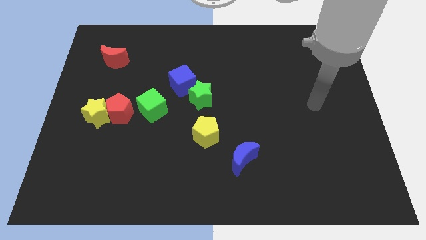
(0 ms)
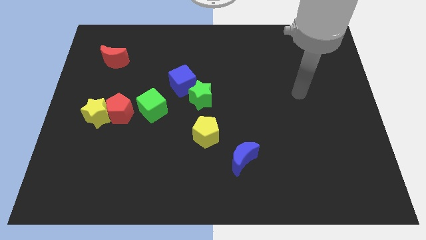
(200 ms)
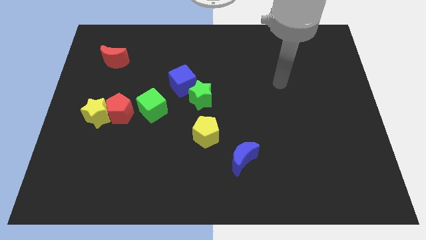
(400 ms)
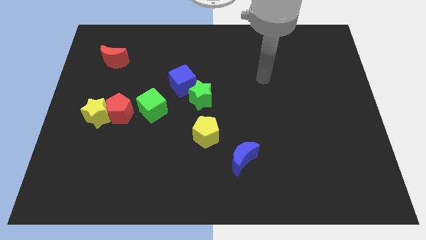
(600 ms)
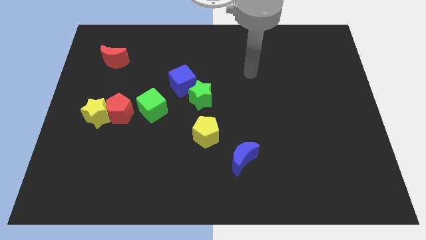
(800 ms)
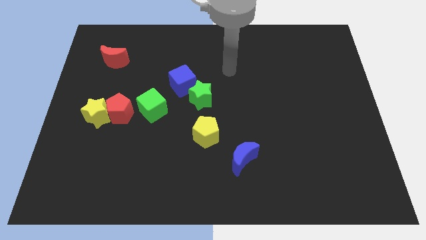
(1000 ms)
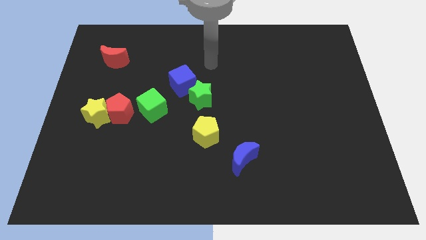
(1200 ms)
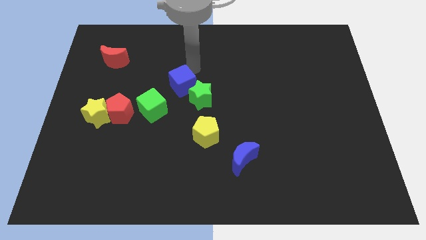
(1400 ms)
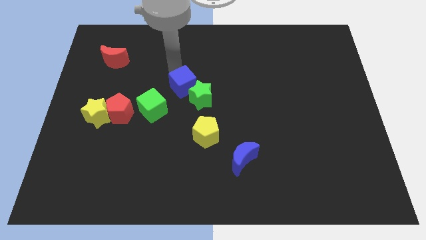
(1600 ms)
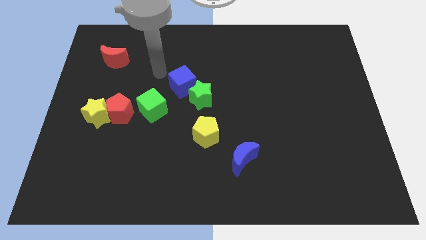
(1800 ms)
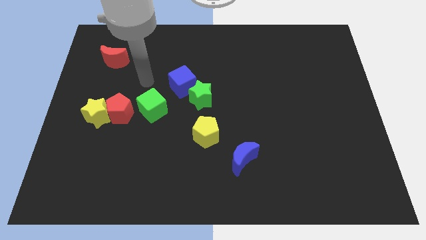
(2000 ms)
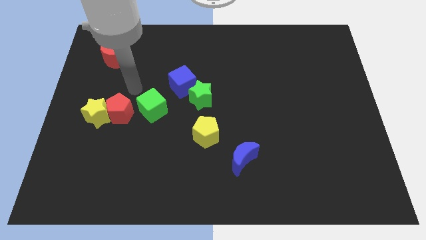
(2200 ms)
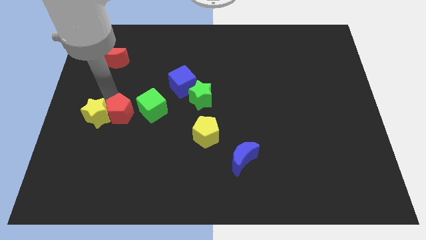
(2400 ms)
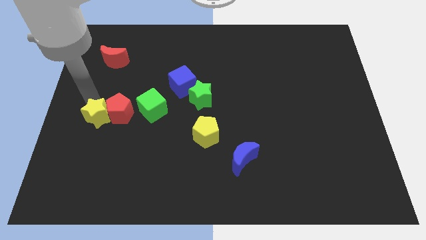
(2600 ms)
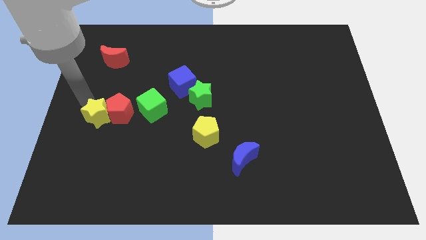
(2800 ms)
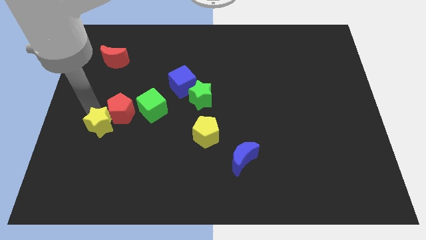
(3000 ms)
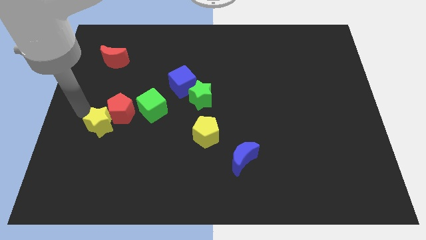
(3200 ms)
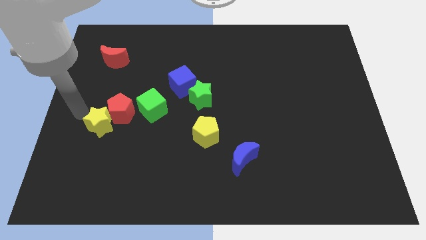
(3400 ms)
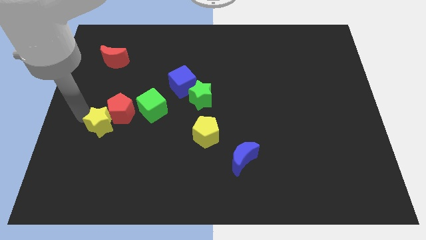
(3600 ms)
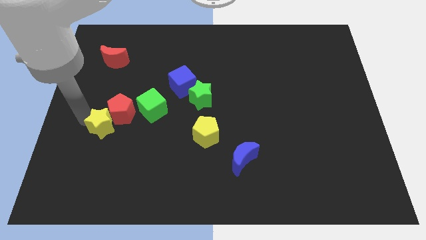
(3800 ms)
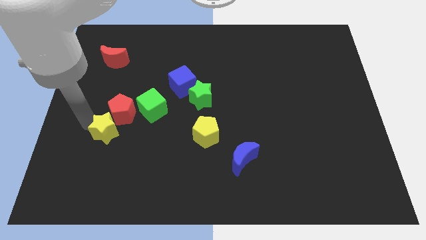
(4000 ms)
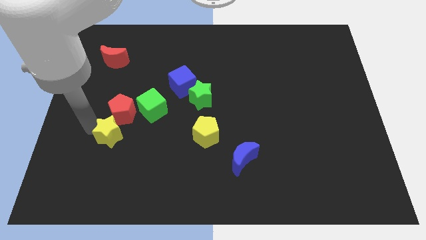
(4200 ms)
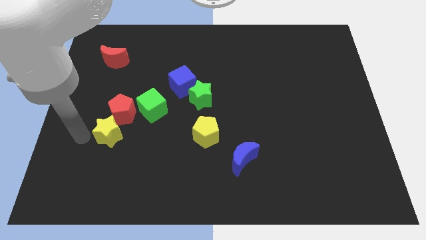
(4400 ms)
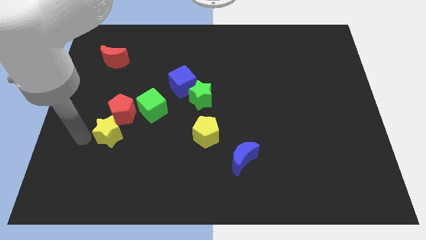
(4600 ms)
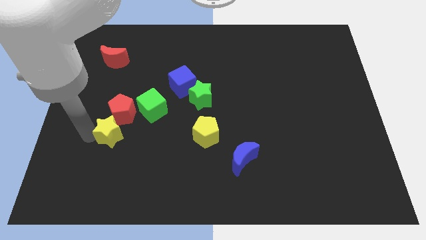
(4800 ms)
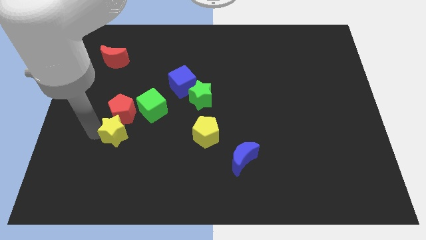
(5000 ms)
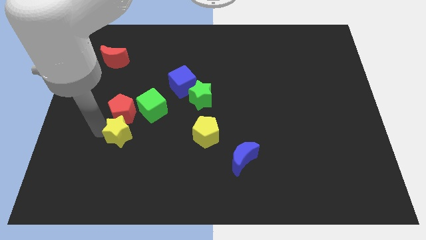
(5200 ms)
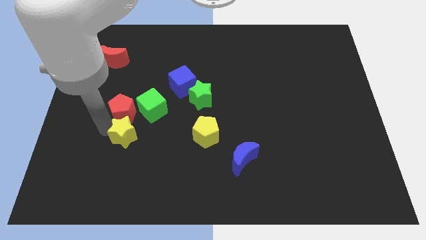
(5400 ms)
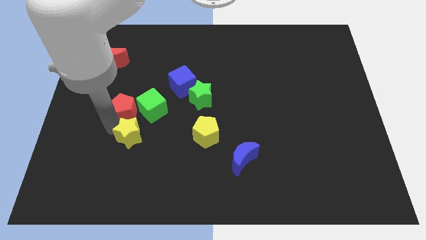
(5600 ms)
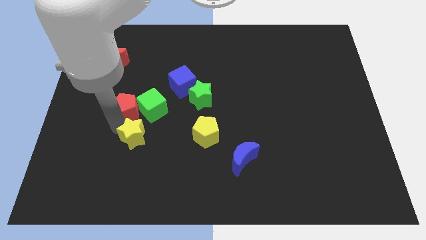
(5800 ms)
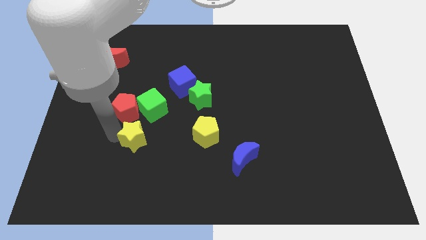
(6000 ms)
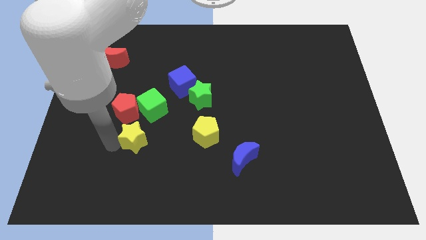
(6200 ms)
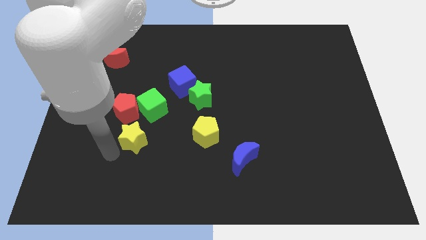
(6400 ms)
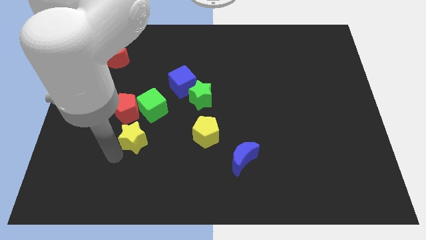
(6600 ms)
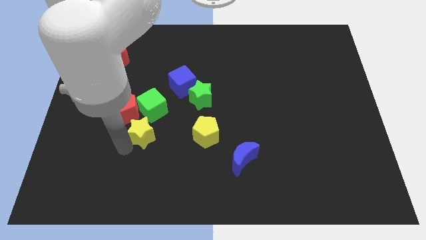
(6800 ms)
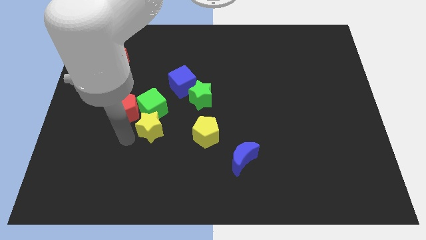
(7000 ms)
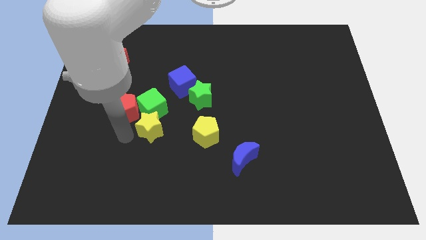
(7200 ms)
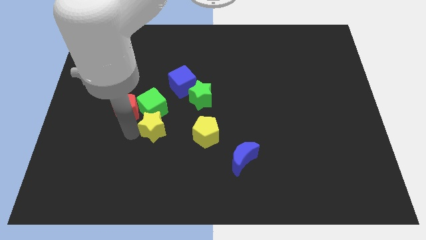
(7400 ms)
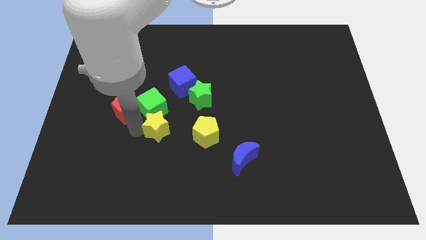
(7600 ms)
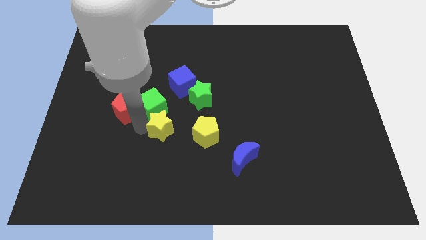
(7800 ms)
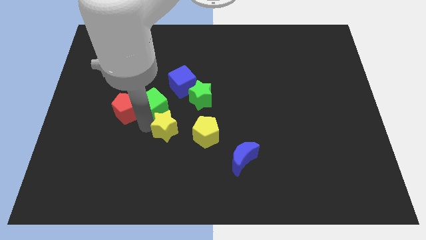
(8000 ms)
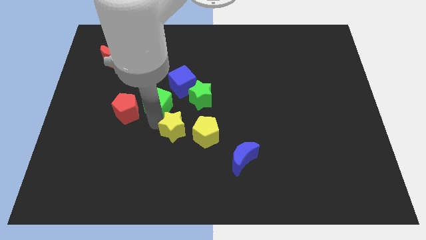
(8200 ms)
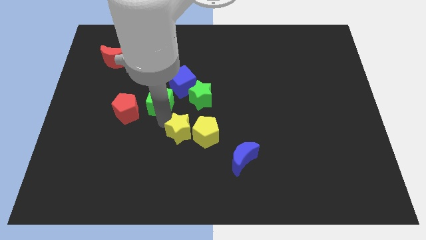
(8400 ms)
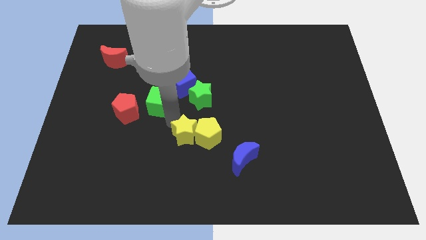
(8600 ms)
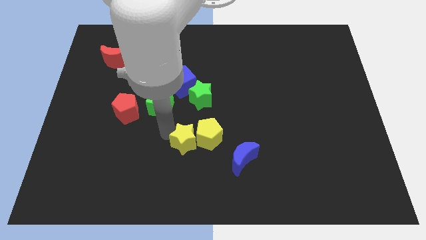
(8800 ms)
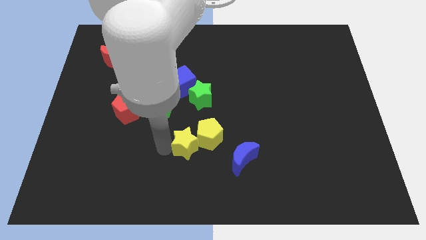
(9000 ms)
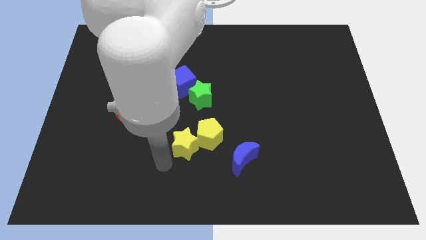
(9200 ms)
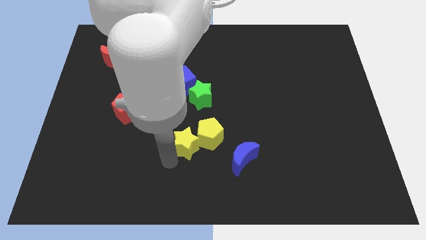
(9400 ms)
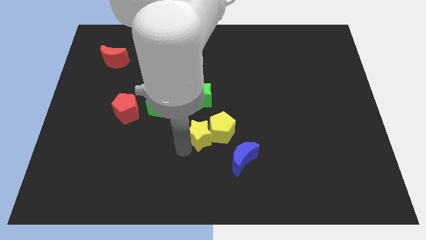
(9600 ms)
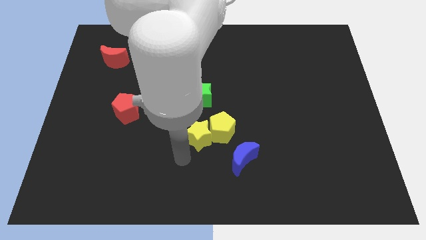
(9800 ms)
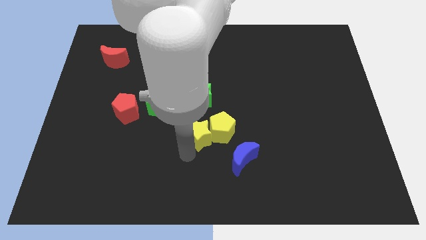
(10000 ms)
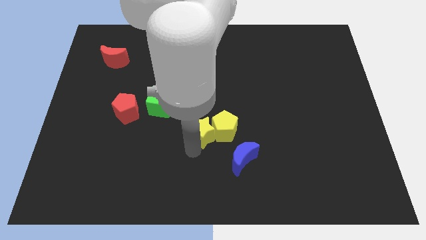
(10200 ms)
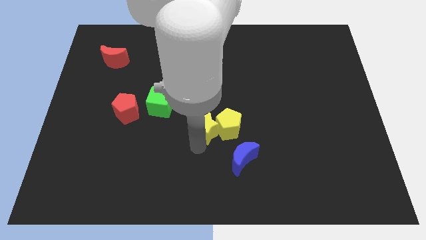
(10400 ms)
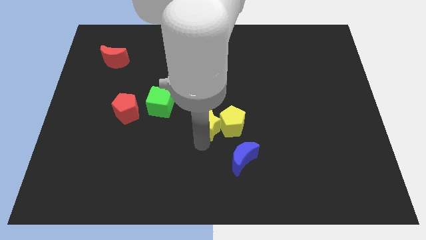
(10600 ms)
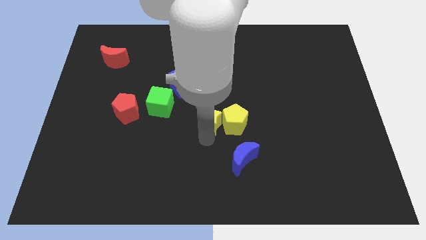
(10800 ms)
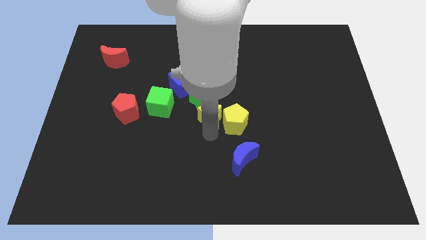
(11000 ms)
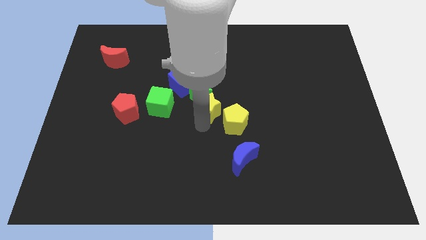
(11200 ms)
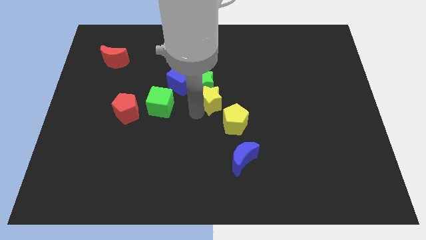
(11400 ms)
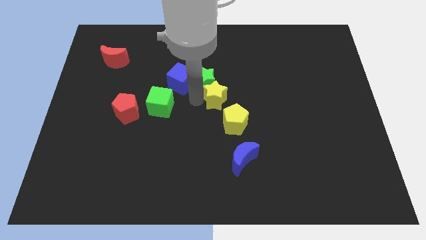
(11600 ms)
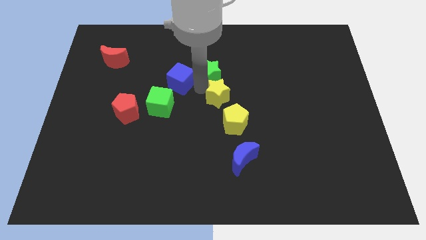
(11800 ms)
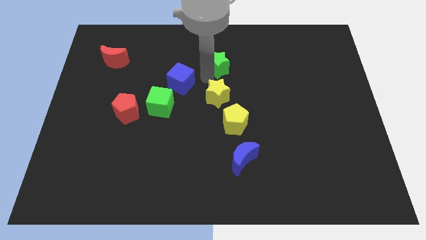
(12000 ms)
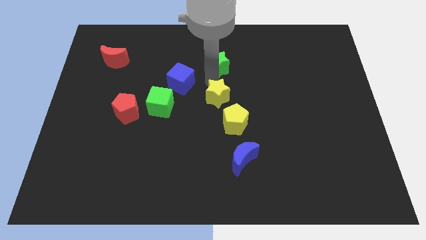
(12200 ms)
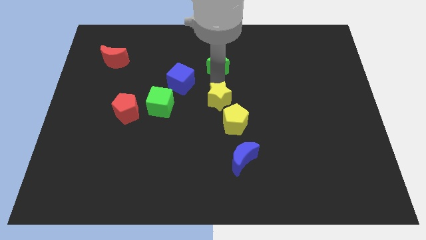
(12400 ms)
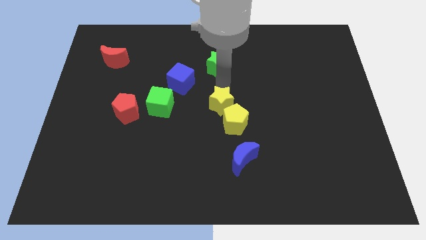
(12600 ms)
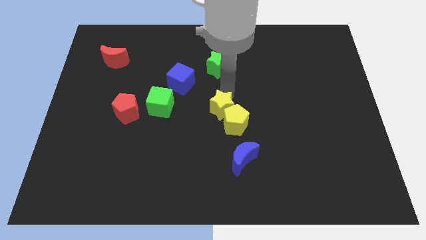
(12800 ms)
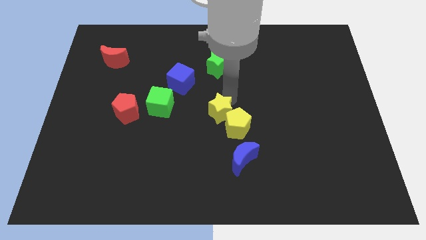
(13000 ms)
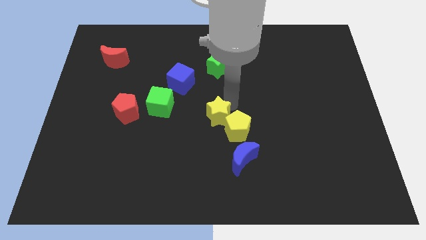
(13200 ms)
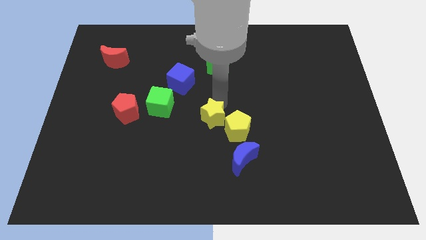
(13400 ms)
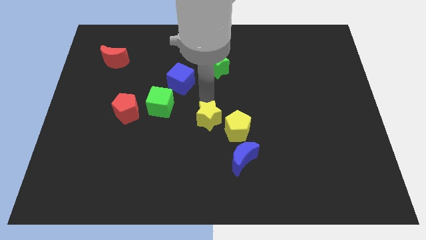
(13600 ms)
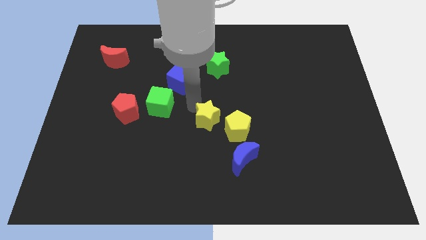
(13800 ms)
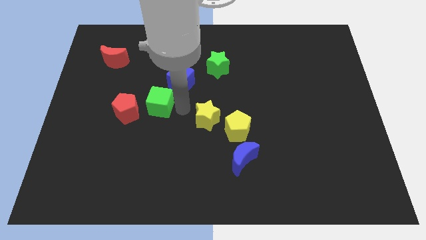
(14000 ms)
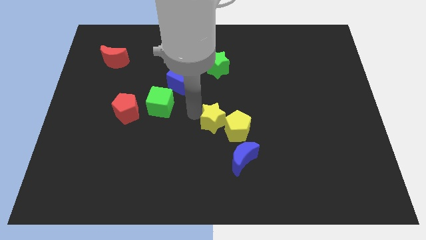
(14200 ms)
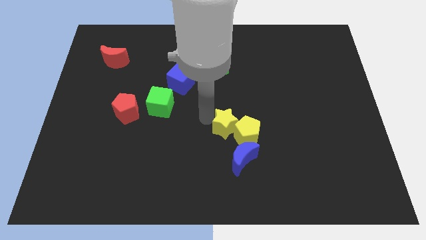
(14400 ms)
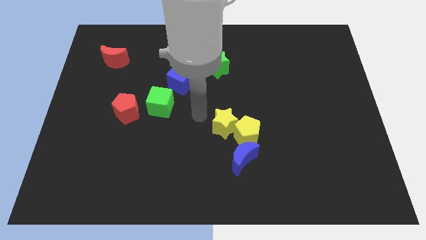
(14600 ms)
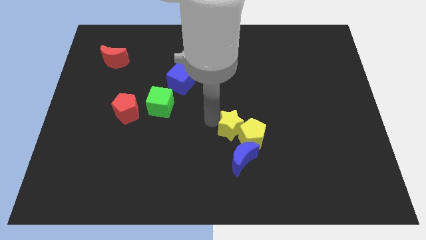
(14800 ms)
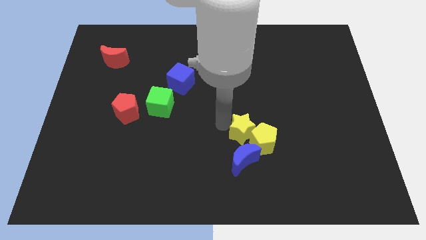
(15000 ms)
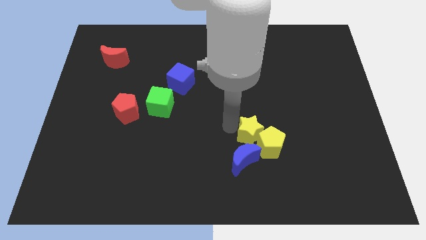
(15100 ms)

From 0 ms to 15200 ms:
push the yellow star to the top right side of the blue moon
